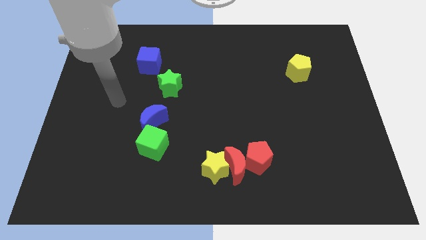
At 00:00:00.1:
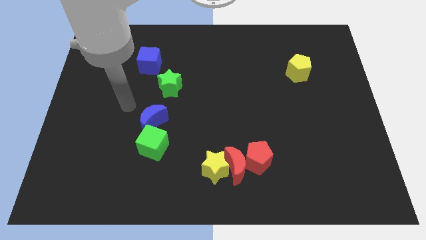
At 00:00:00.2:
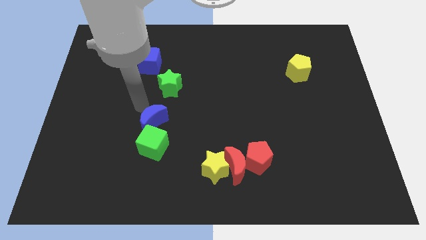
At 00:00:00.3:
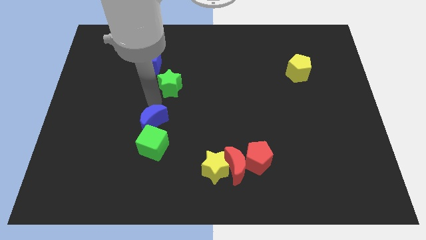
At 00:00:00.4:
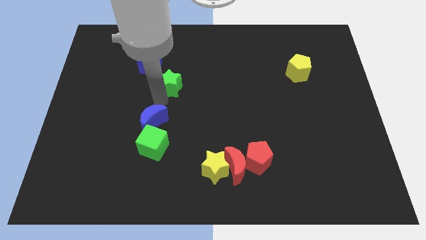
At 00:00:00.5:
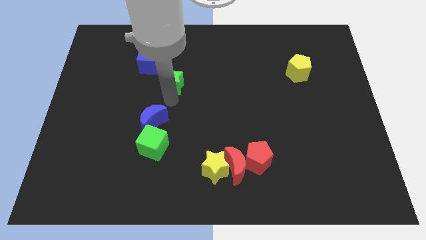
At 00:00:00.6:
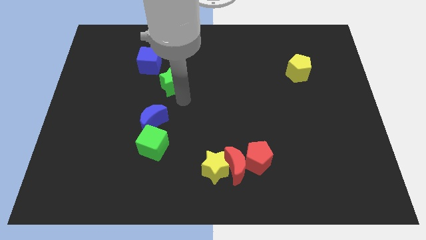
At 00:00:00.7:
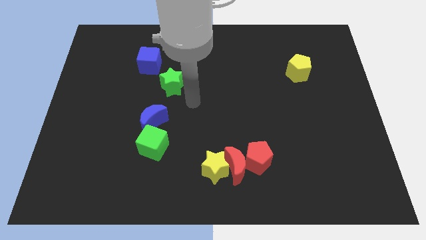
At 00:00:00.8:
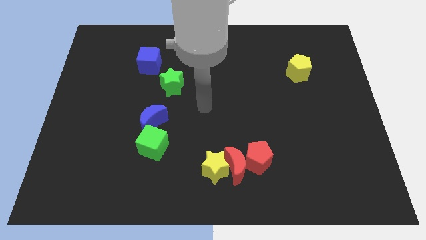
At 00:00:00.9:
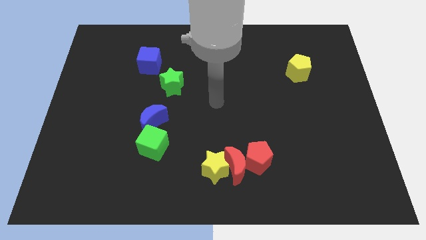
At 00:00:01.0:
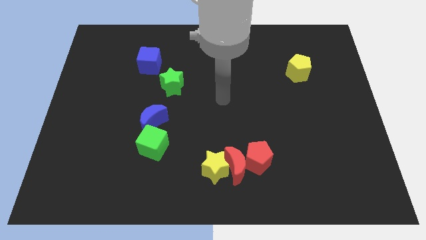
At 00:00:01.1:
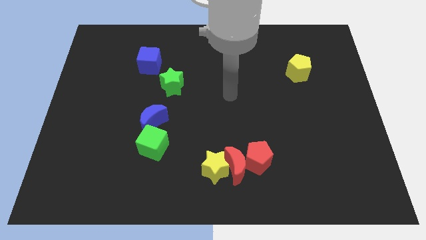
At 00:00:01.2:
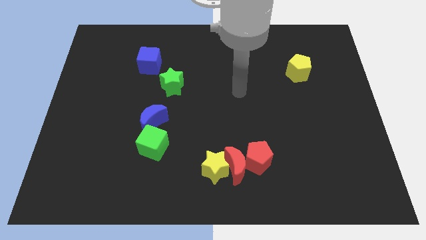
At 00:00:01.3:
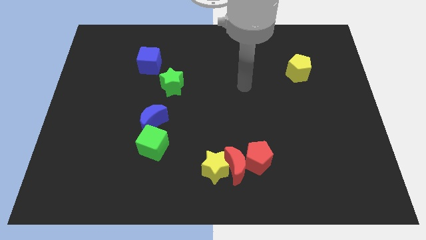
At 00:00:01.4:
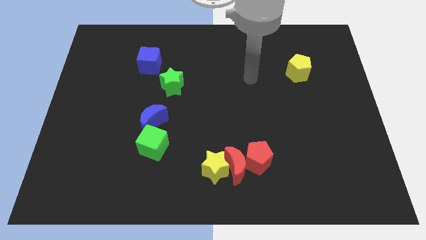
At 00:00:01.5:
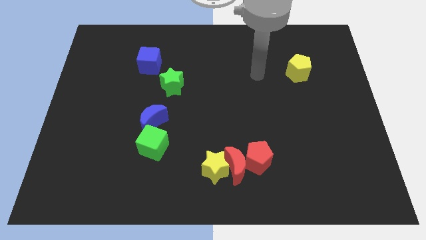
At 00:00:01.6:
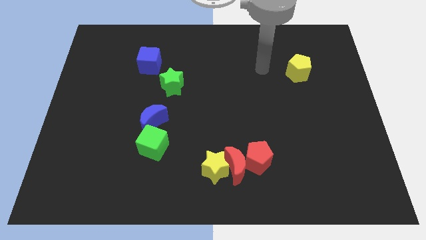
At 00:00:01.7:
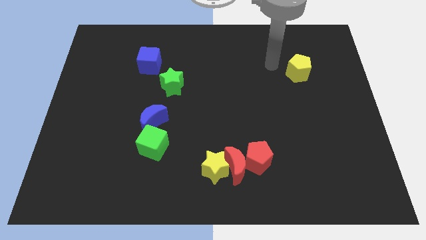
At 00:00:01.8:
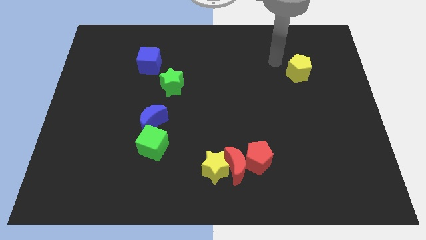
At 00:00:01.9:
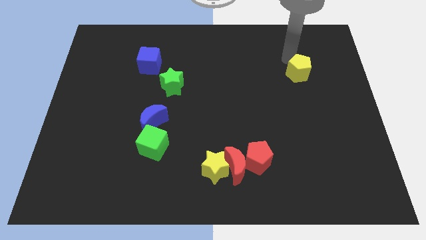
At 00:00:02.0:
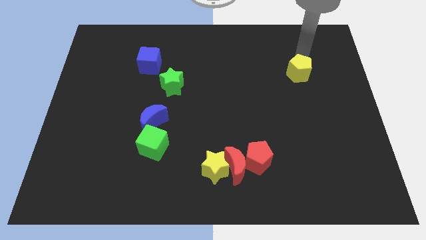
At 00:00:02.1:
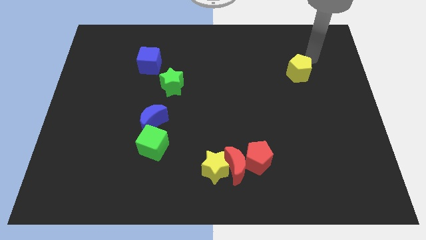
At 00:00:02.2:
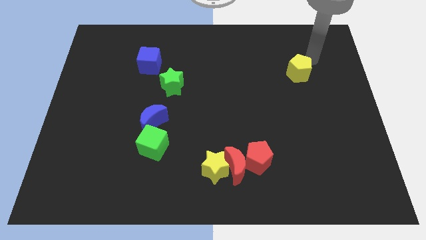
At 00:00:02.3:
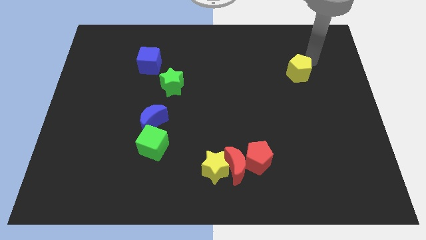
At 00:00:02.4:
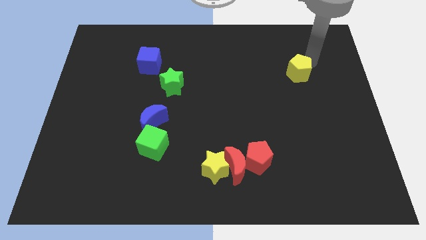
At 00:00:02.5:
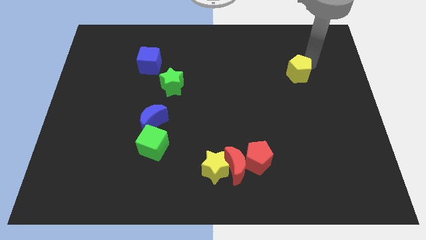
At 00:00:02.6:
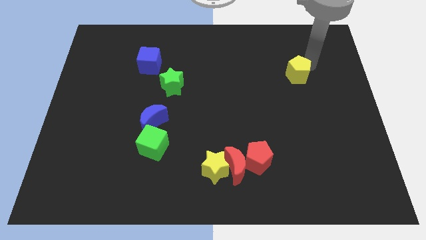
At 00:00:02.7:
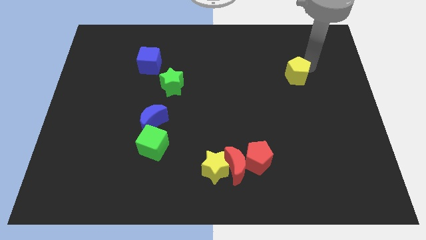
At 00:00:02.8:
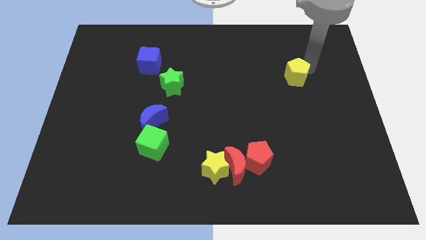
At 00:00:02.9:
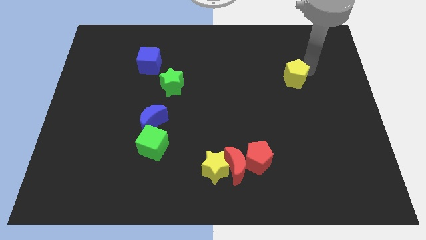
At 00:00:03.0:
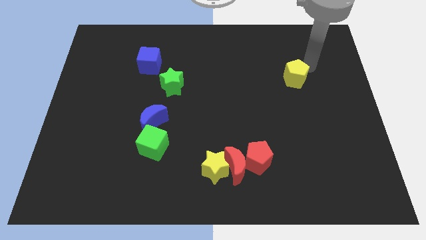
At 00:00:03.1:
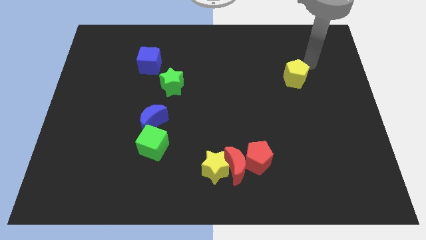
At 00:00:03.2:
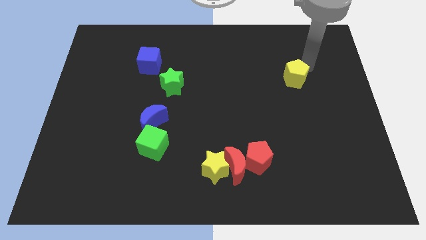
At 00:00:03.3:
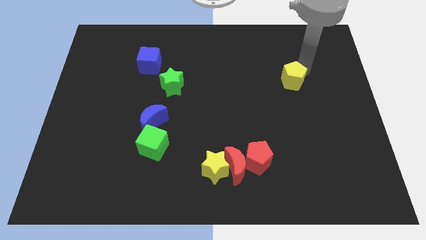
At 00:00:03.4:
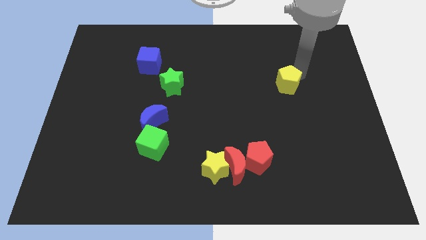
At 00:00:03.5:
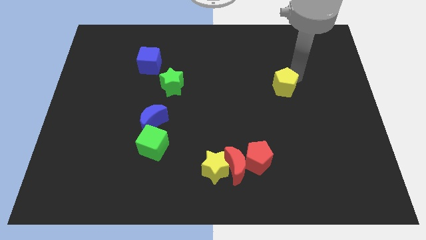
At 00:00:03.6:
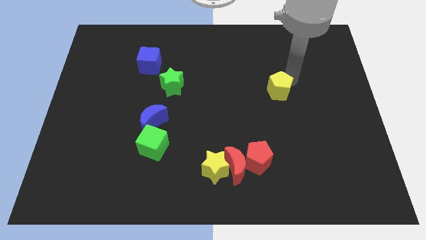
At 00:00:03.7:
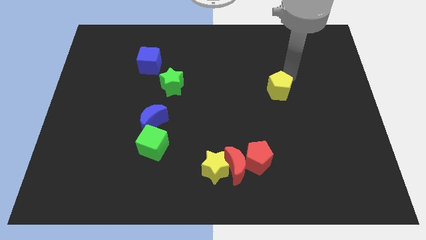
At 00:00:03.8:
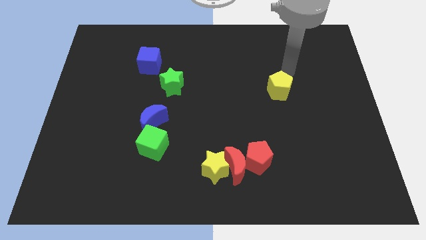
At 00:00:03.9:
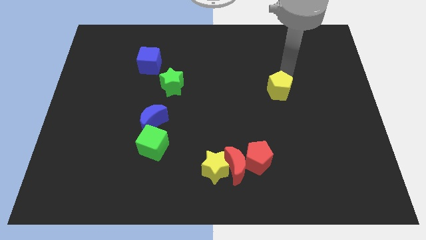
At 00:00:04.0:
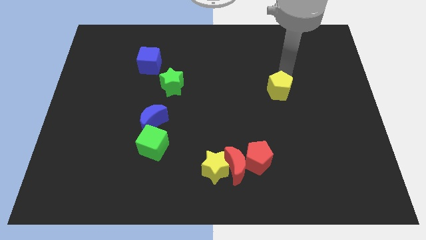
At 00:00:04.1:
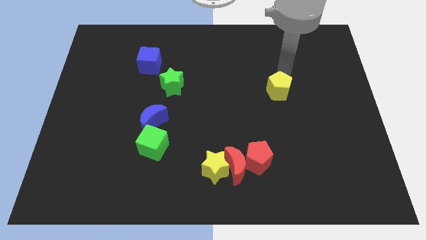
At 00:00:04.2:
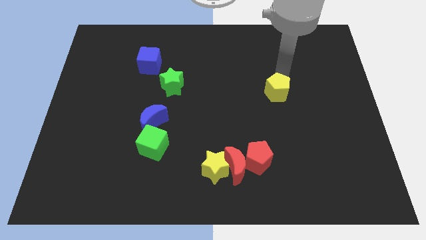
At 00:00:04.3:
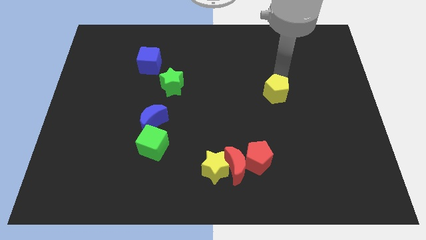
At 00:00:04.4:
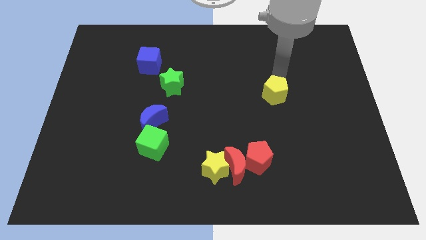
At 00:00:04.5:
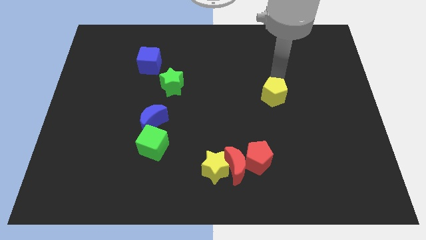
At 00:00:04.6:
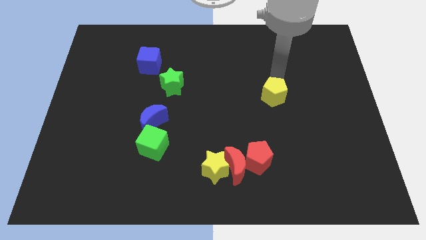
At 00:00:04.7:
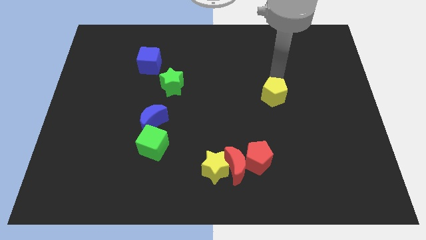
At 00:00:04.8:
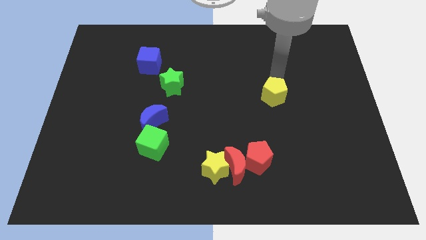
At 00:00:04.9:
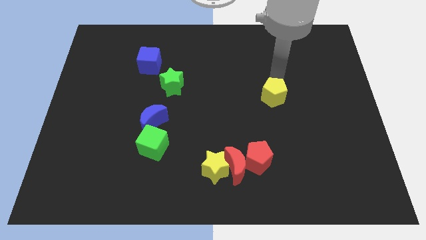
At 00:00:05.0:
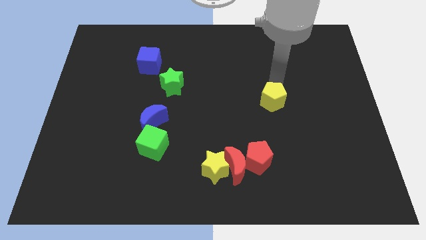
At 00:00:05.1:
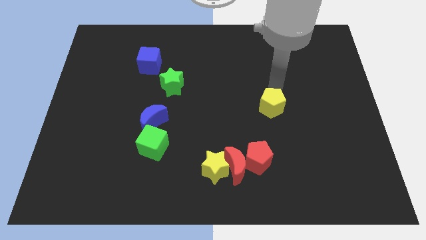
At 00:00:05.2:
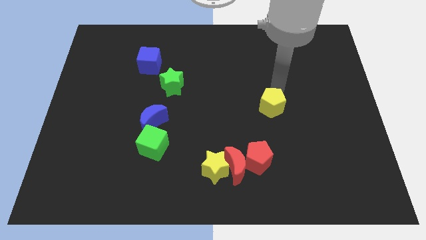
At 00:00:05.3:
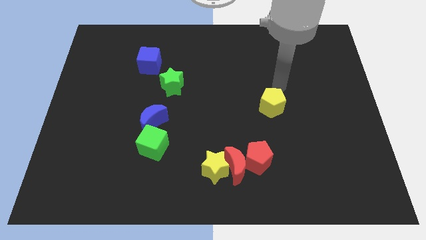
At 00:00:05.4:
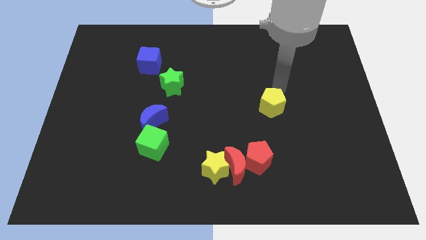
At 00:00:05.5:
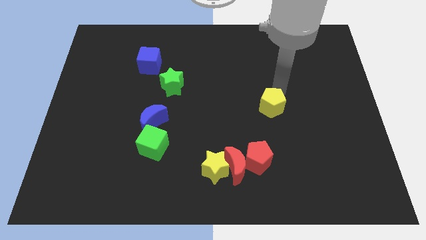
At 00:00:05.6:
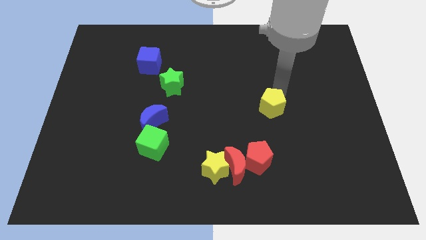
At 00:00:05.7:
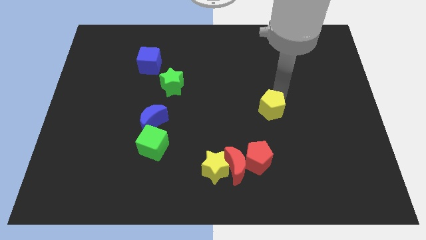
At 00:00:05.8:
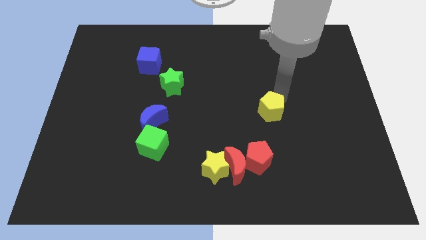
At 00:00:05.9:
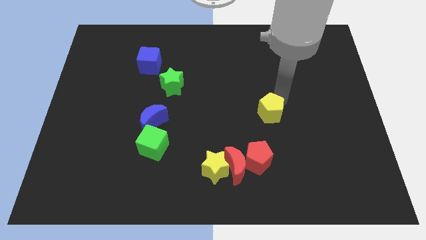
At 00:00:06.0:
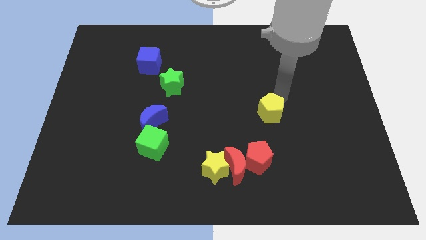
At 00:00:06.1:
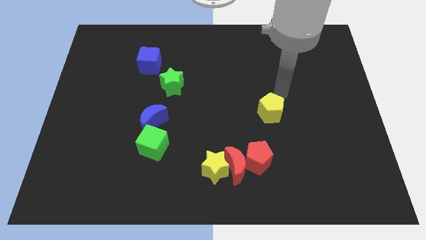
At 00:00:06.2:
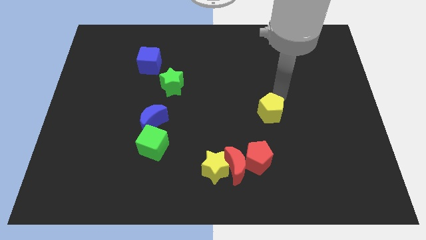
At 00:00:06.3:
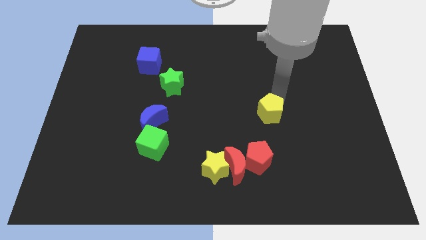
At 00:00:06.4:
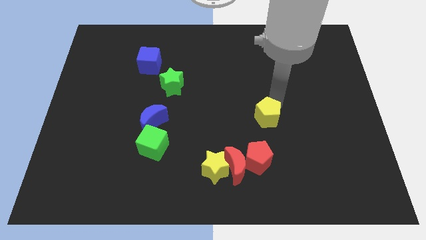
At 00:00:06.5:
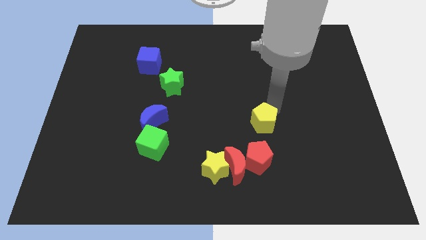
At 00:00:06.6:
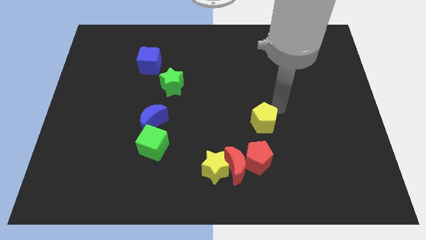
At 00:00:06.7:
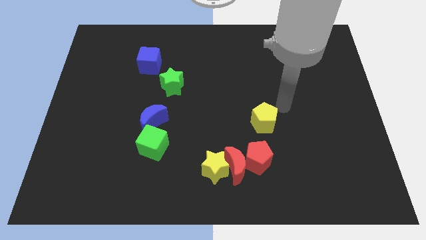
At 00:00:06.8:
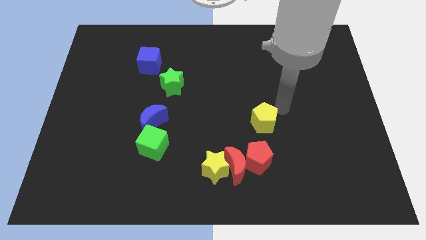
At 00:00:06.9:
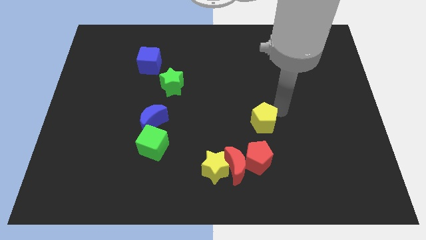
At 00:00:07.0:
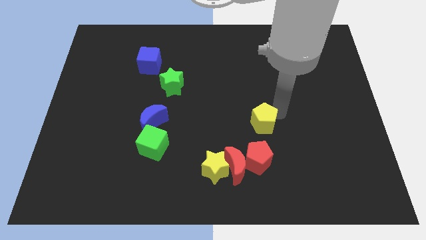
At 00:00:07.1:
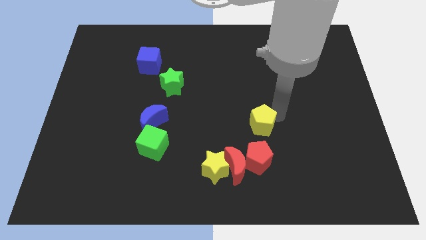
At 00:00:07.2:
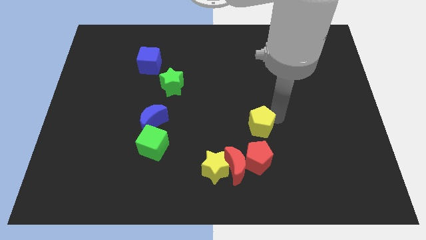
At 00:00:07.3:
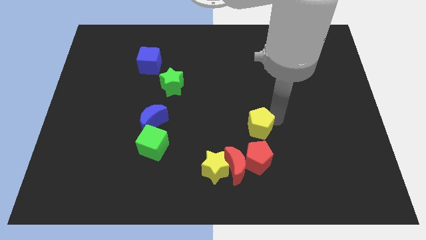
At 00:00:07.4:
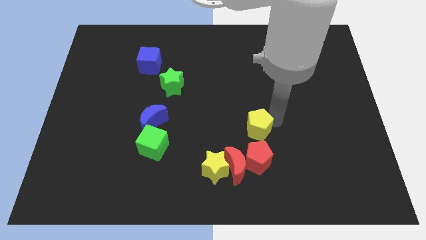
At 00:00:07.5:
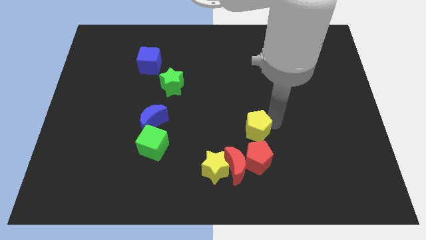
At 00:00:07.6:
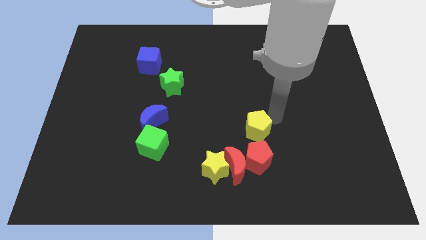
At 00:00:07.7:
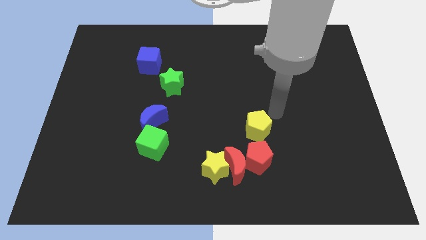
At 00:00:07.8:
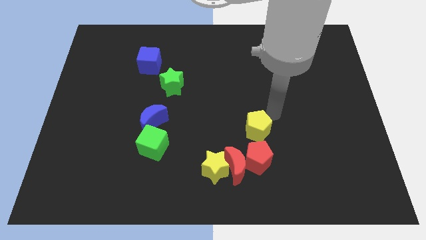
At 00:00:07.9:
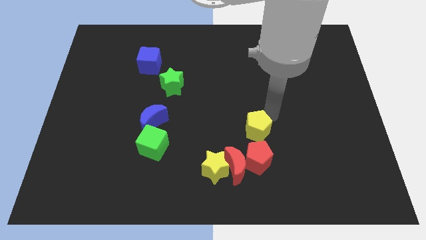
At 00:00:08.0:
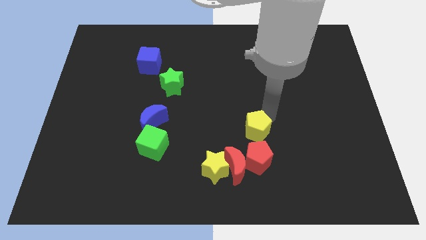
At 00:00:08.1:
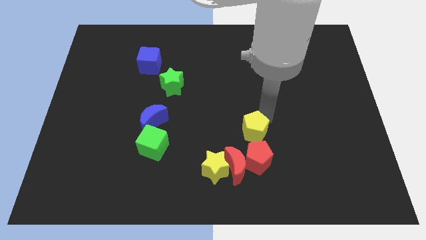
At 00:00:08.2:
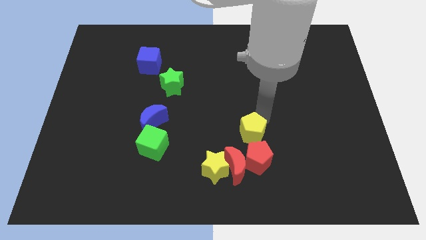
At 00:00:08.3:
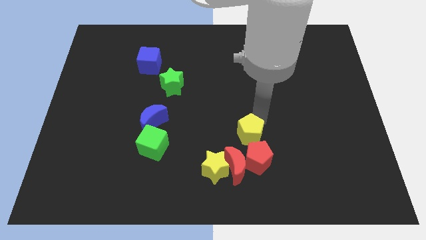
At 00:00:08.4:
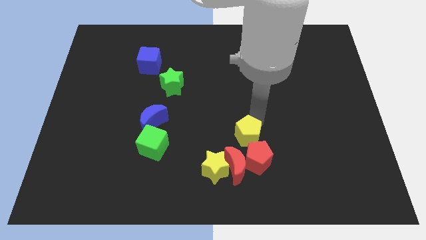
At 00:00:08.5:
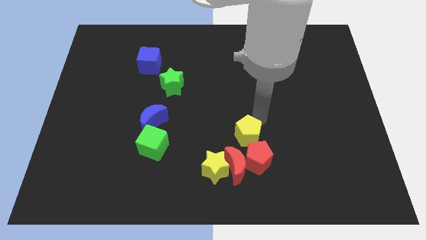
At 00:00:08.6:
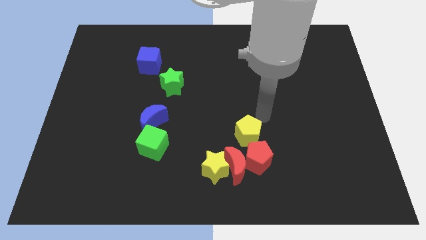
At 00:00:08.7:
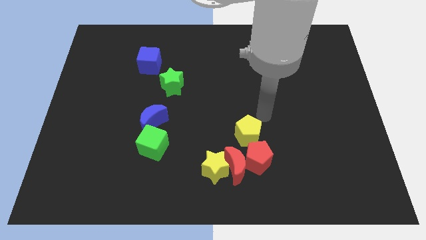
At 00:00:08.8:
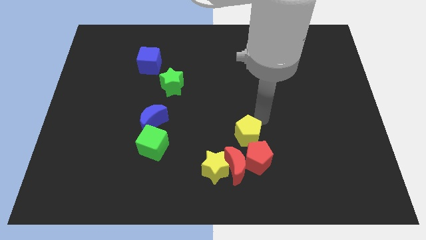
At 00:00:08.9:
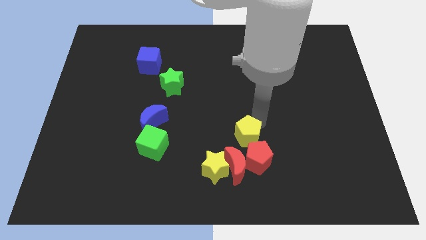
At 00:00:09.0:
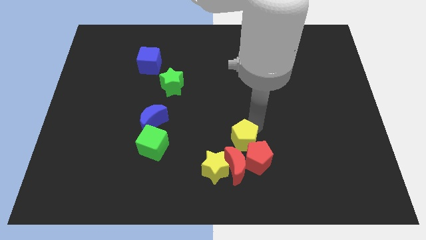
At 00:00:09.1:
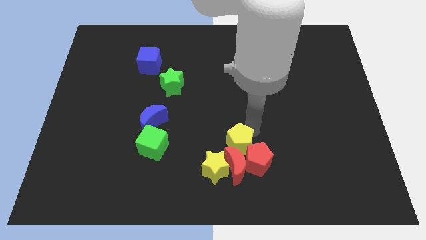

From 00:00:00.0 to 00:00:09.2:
push the yellow pentagon next to the red moon
